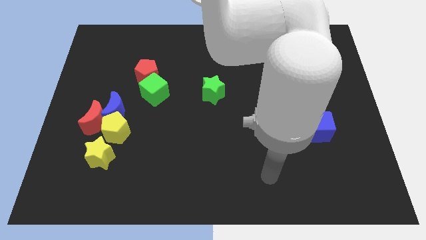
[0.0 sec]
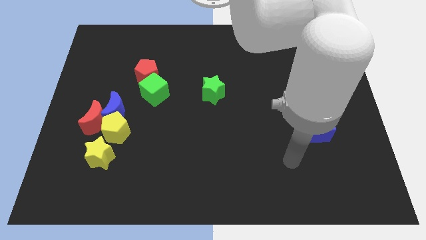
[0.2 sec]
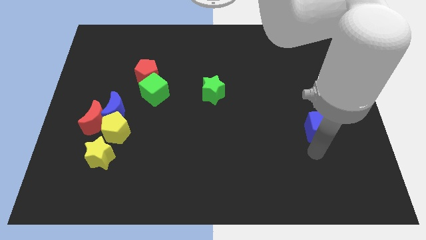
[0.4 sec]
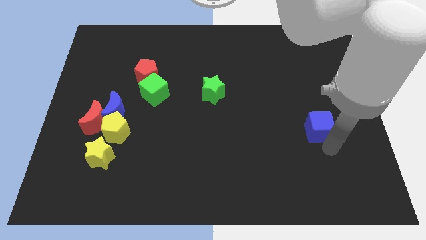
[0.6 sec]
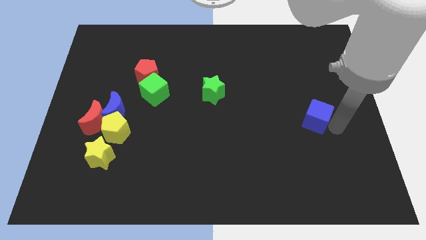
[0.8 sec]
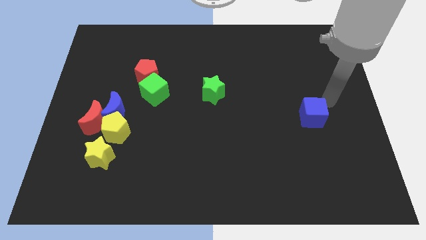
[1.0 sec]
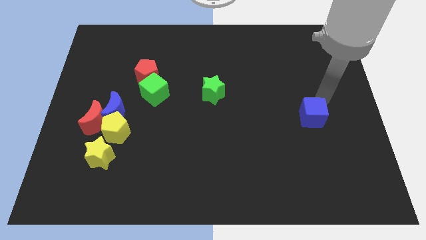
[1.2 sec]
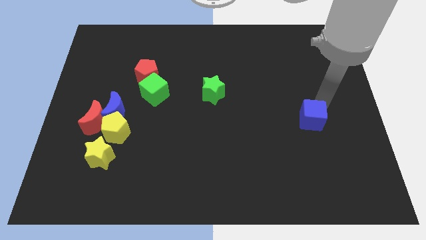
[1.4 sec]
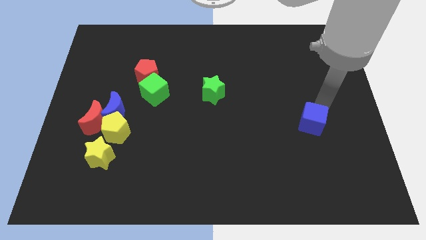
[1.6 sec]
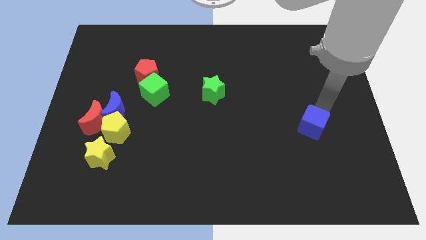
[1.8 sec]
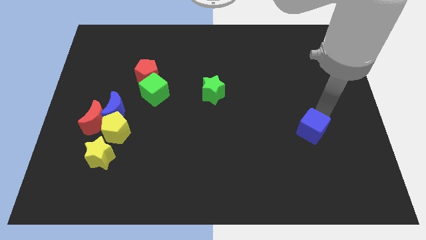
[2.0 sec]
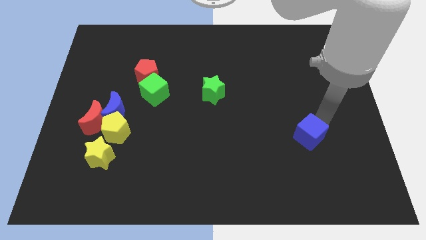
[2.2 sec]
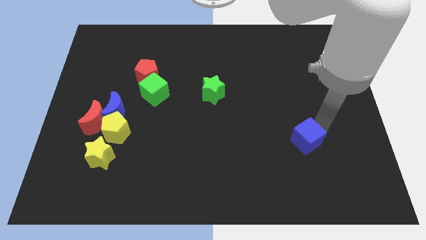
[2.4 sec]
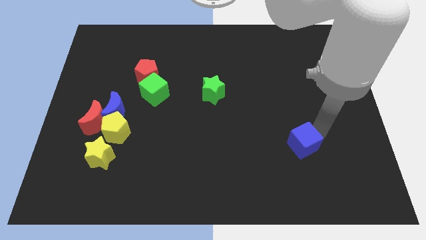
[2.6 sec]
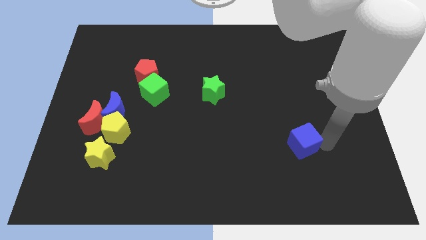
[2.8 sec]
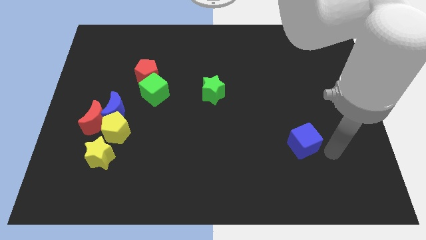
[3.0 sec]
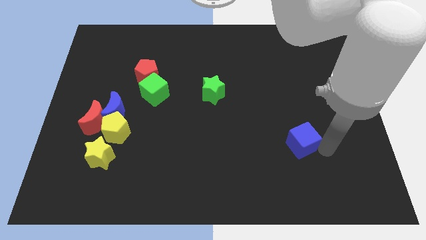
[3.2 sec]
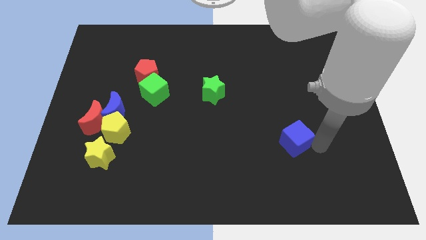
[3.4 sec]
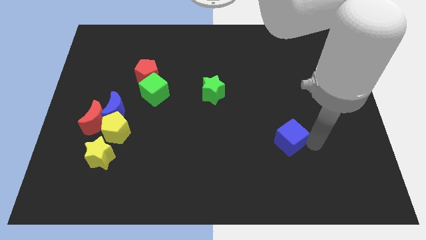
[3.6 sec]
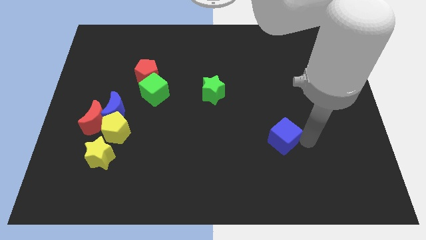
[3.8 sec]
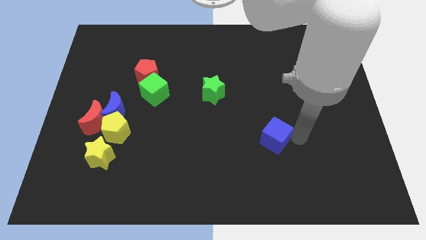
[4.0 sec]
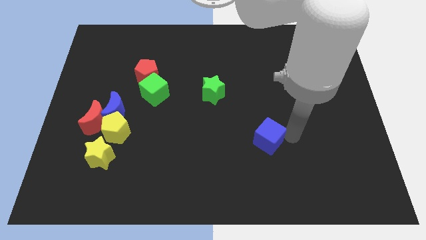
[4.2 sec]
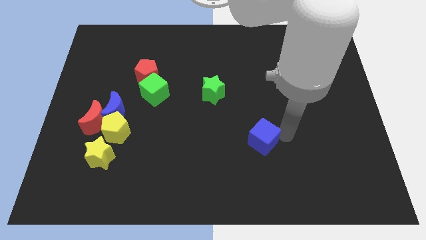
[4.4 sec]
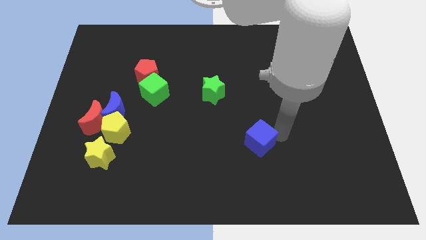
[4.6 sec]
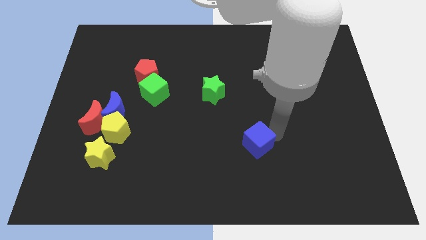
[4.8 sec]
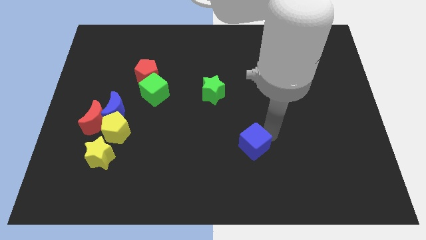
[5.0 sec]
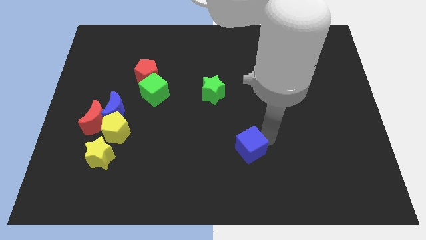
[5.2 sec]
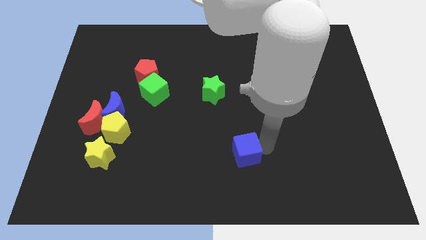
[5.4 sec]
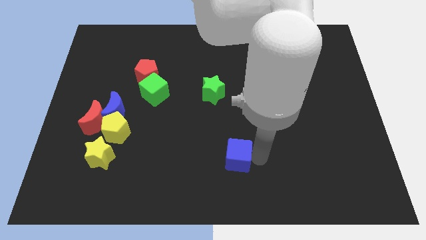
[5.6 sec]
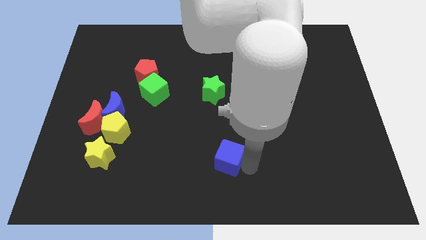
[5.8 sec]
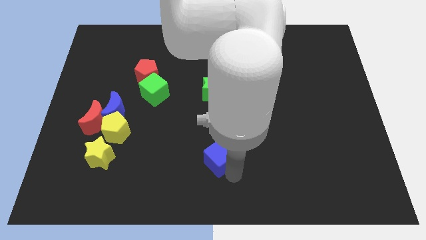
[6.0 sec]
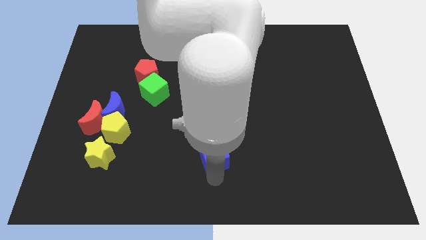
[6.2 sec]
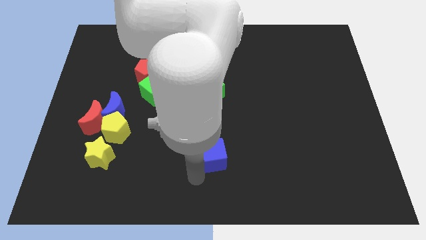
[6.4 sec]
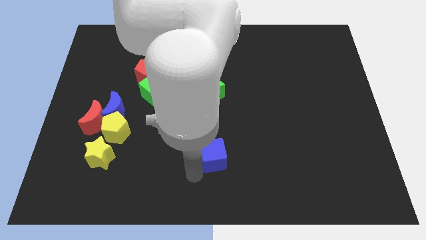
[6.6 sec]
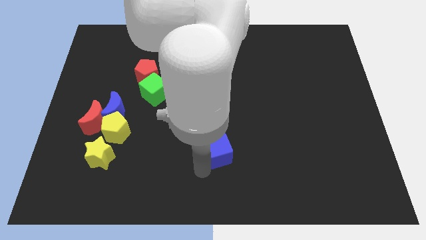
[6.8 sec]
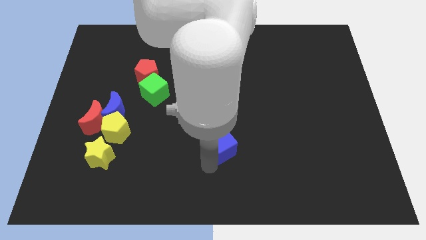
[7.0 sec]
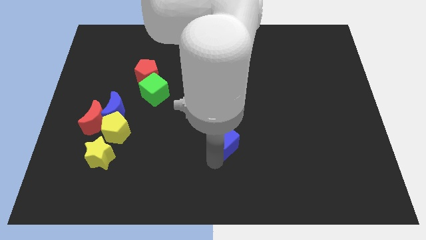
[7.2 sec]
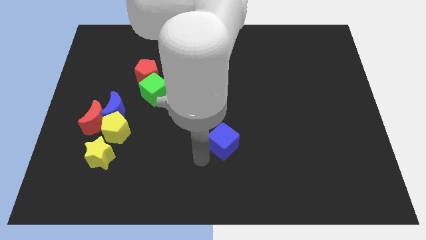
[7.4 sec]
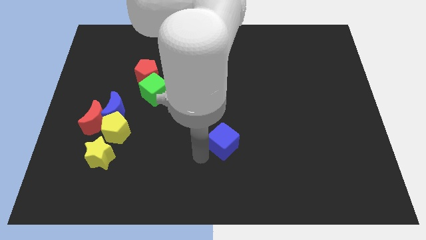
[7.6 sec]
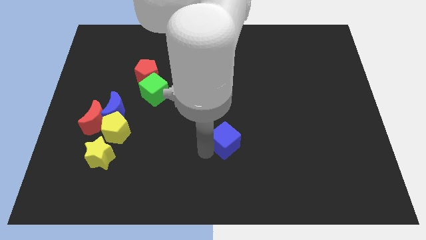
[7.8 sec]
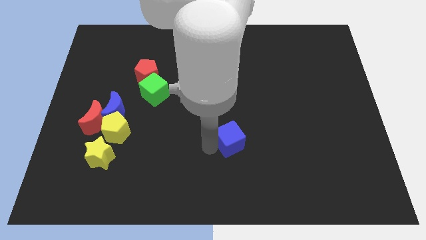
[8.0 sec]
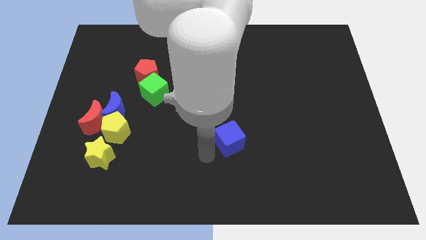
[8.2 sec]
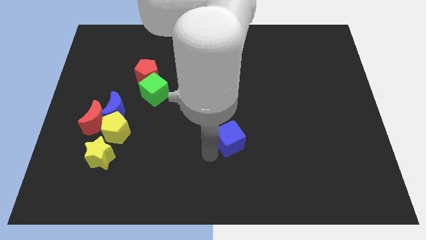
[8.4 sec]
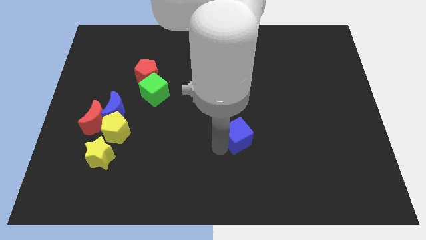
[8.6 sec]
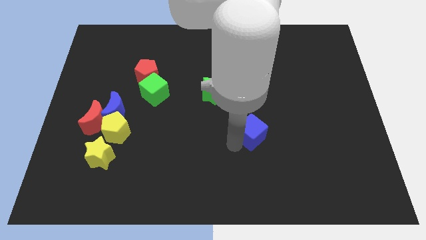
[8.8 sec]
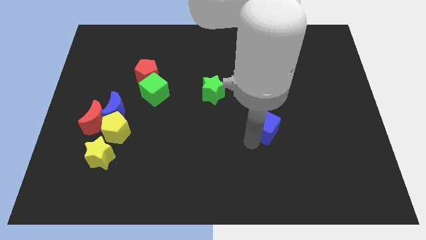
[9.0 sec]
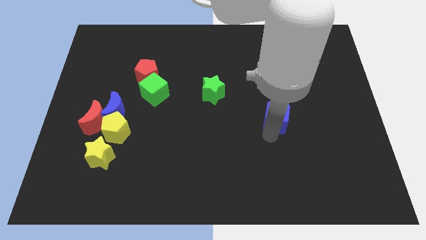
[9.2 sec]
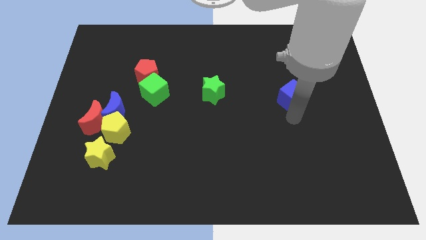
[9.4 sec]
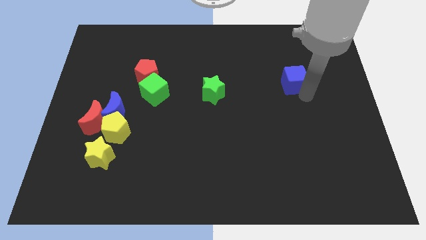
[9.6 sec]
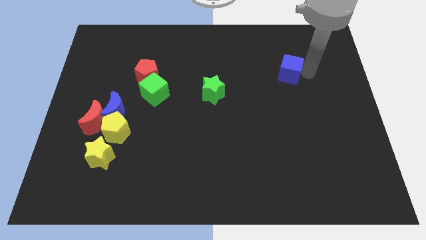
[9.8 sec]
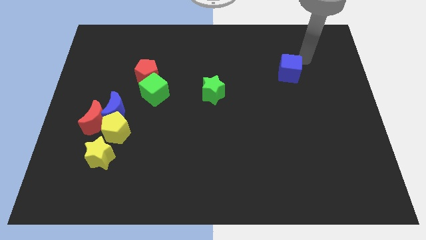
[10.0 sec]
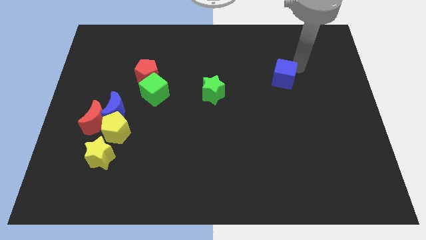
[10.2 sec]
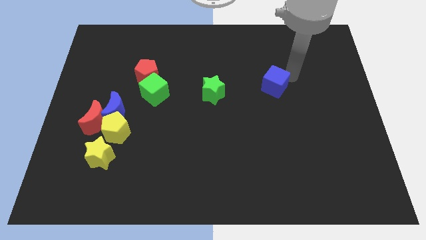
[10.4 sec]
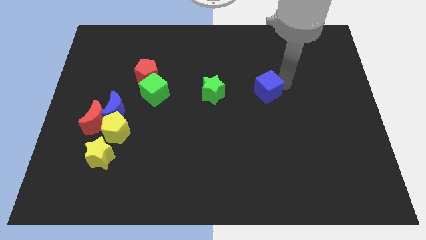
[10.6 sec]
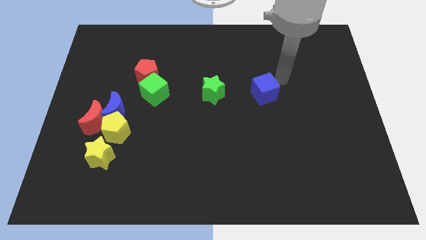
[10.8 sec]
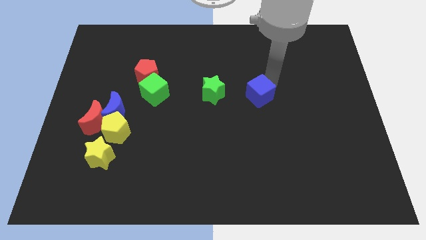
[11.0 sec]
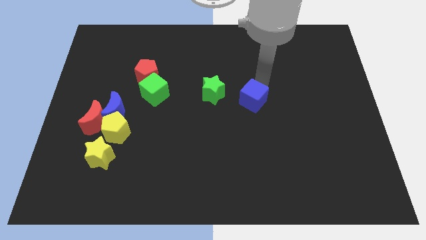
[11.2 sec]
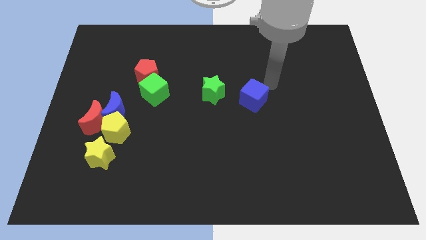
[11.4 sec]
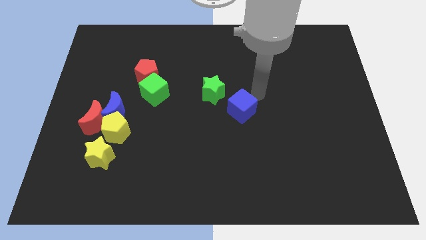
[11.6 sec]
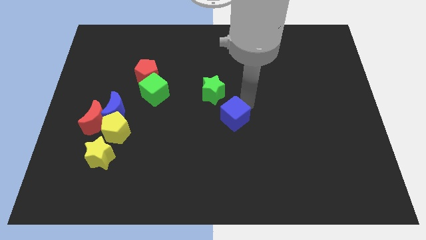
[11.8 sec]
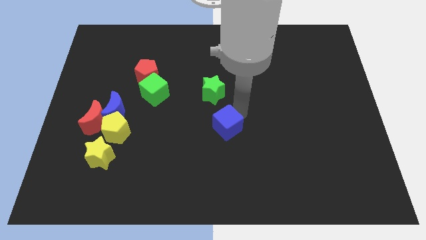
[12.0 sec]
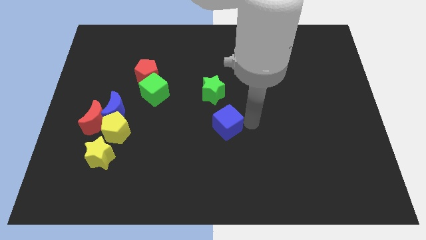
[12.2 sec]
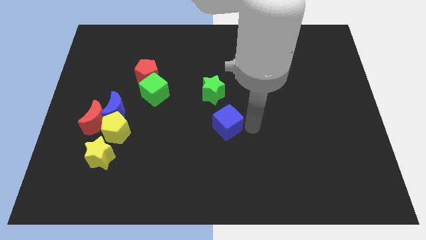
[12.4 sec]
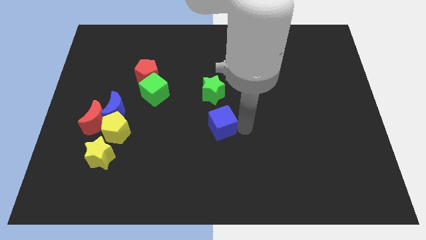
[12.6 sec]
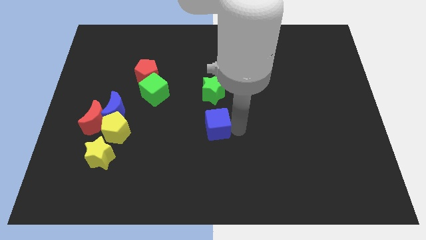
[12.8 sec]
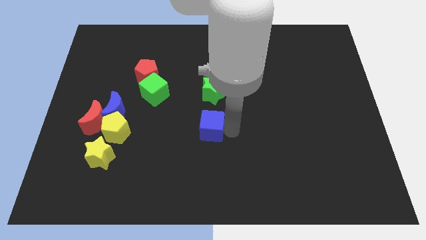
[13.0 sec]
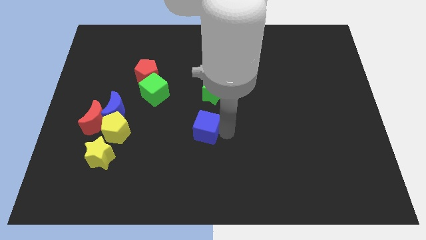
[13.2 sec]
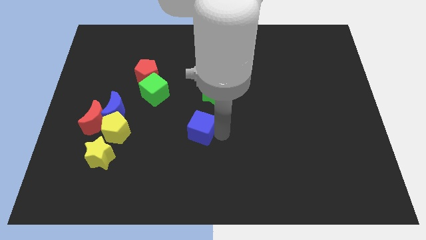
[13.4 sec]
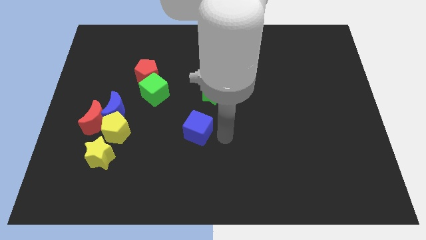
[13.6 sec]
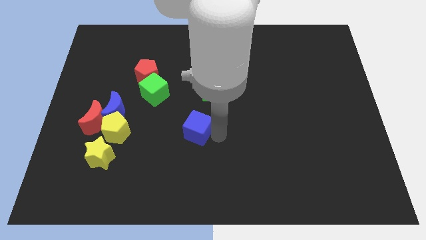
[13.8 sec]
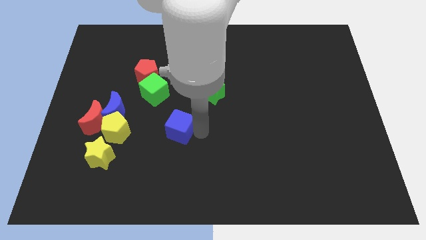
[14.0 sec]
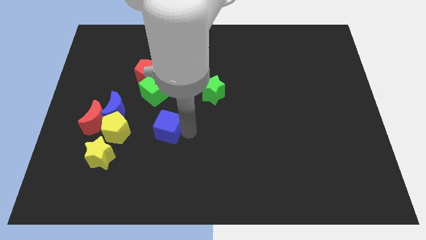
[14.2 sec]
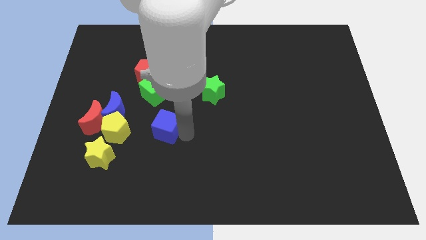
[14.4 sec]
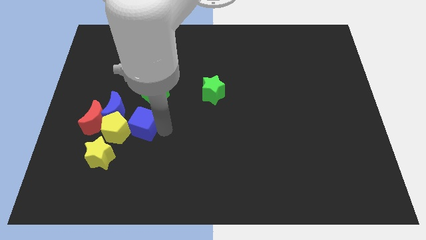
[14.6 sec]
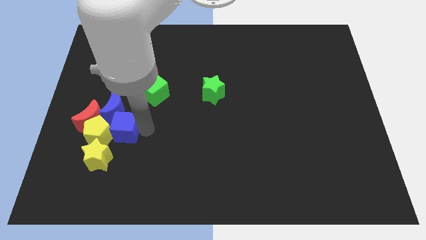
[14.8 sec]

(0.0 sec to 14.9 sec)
push the blue cube next to the blue moon
